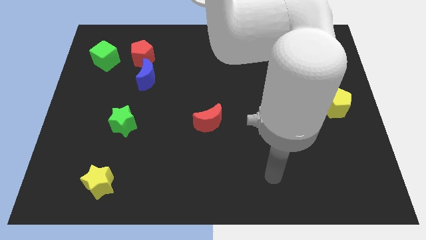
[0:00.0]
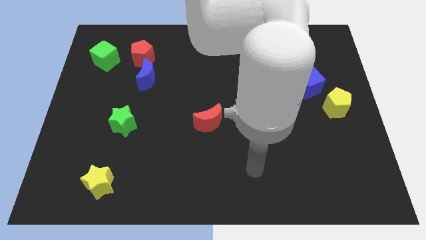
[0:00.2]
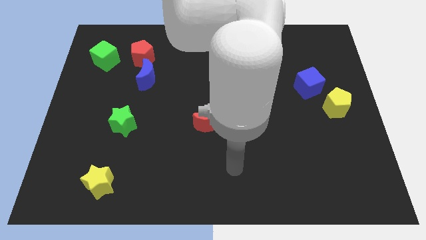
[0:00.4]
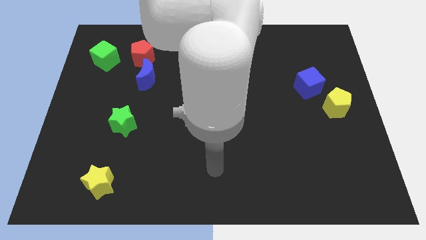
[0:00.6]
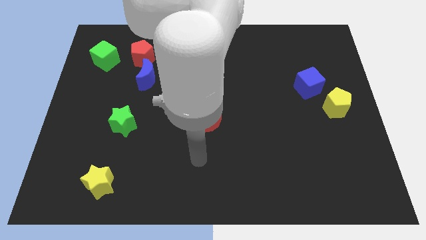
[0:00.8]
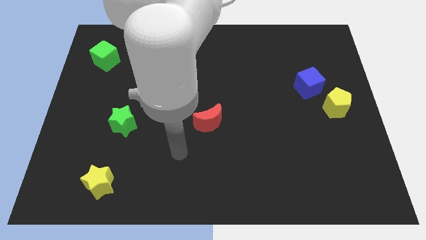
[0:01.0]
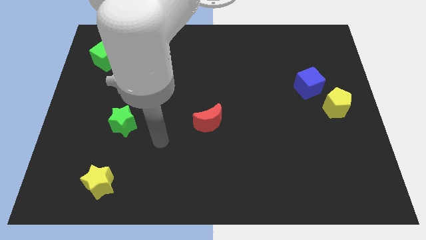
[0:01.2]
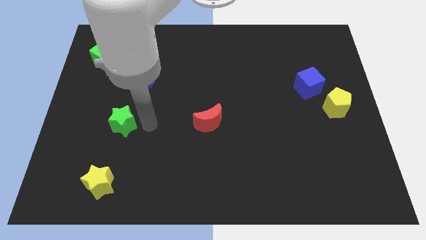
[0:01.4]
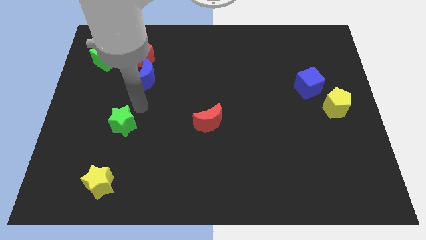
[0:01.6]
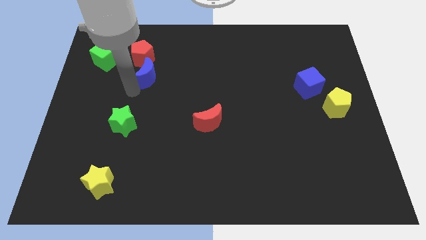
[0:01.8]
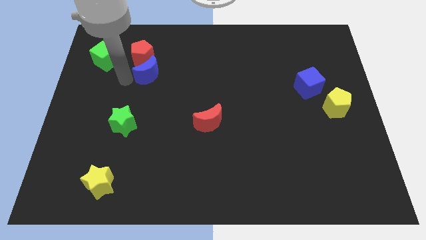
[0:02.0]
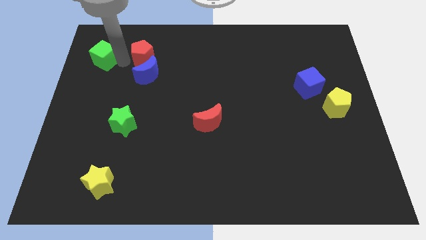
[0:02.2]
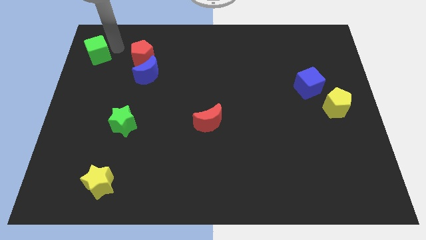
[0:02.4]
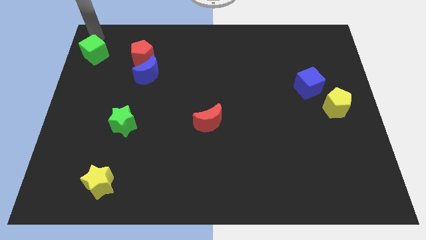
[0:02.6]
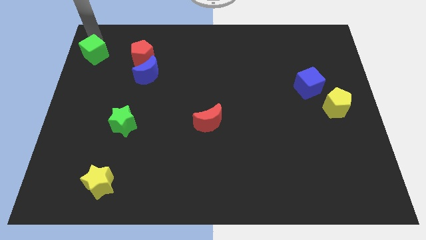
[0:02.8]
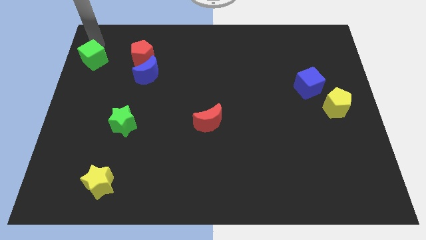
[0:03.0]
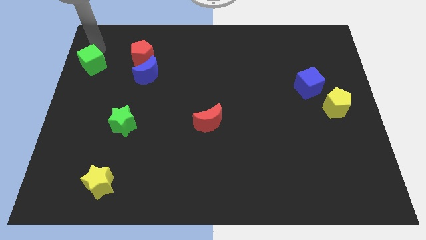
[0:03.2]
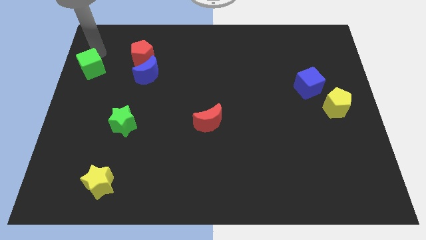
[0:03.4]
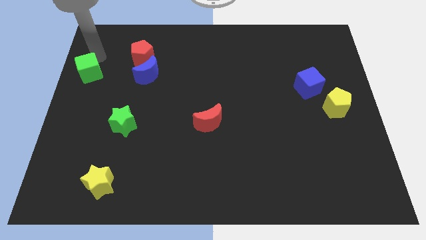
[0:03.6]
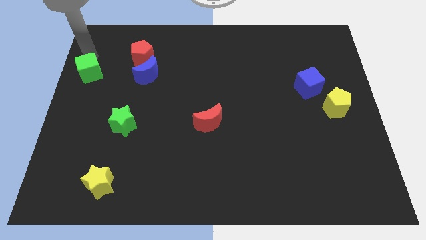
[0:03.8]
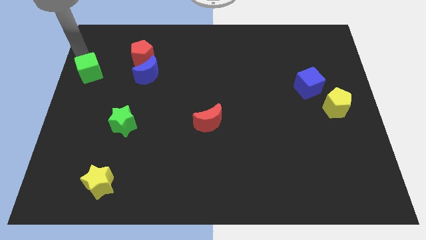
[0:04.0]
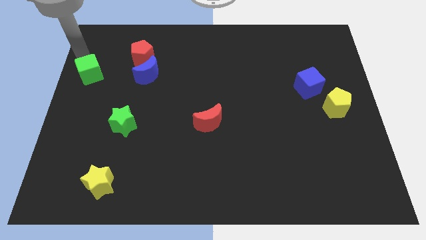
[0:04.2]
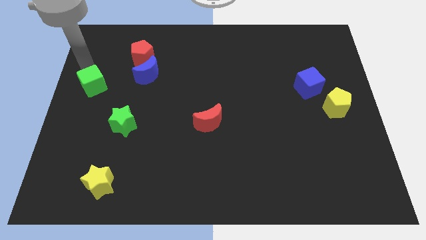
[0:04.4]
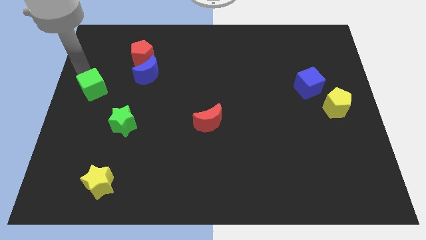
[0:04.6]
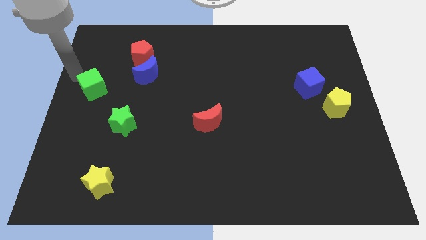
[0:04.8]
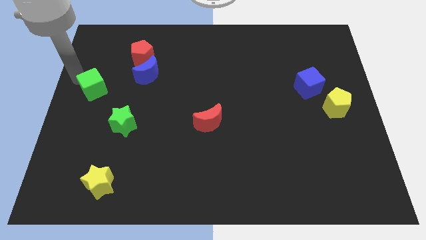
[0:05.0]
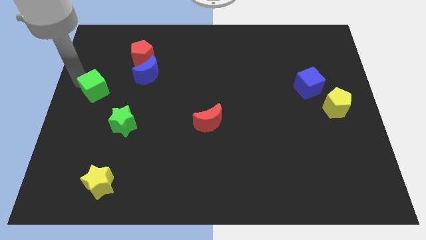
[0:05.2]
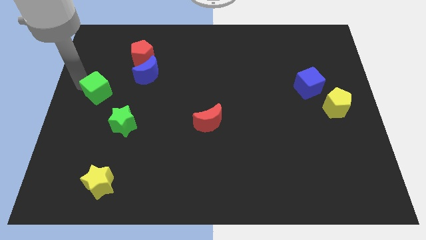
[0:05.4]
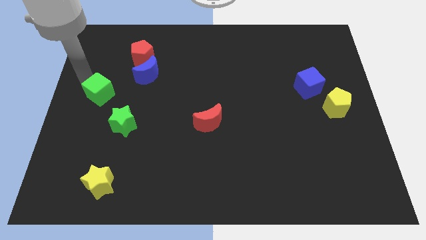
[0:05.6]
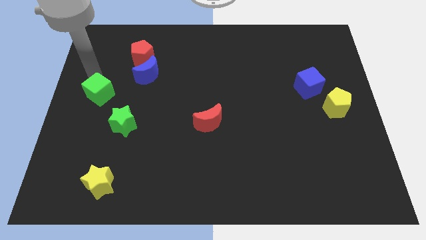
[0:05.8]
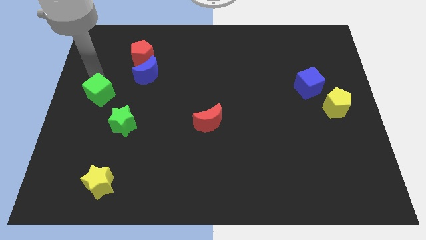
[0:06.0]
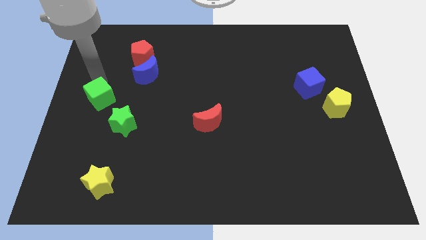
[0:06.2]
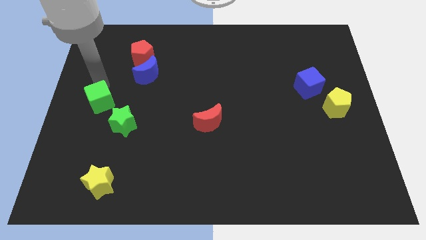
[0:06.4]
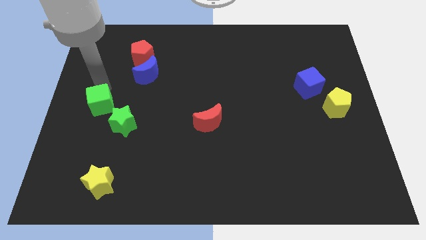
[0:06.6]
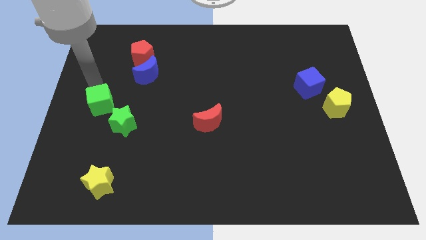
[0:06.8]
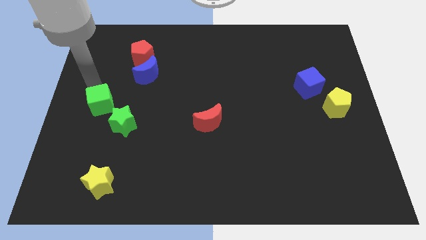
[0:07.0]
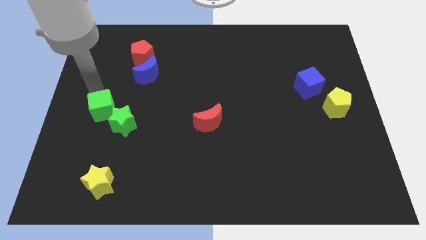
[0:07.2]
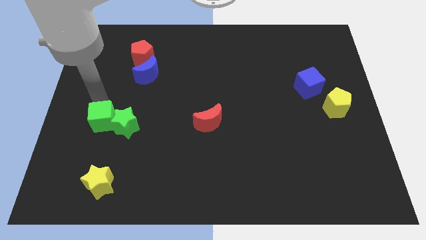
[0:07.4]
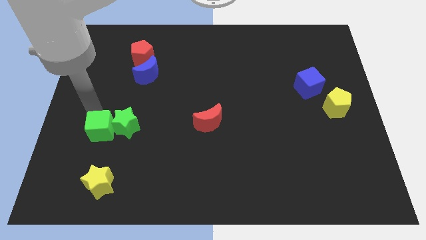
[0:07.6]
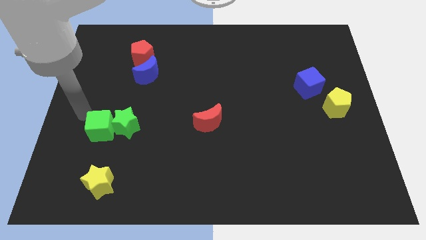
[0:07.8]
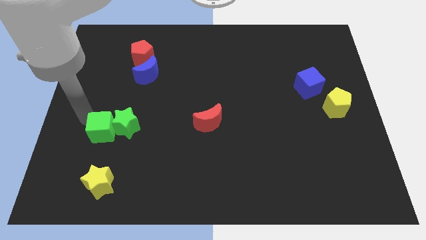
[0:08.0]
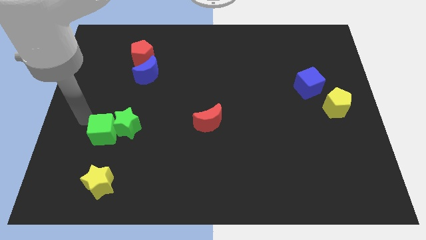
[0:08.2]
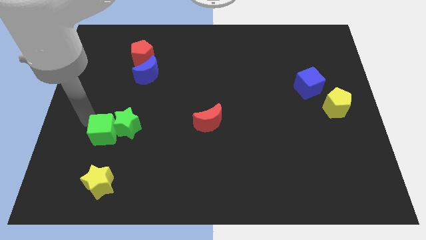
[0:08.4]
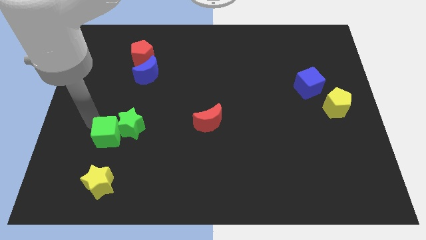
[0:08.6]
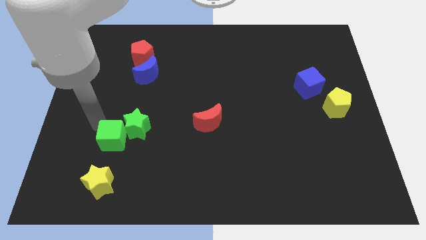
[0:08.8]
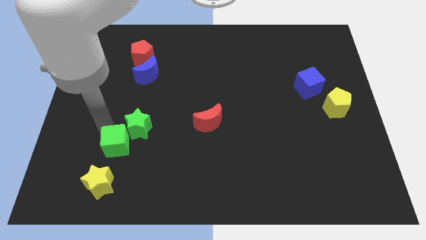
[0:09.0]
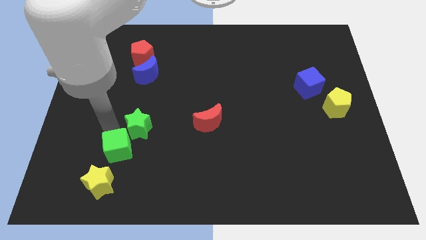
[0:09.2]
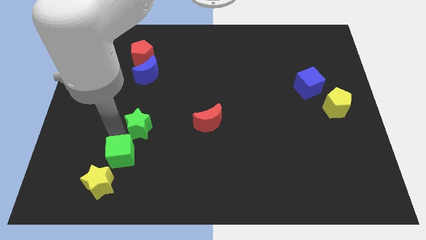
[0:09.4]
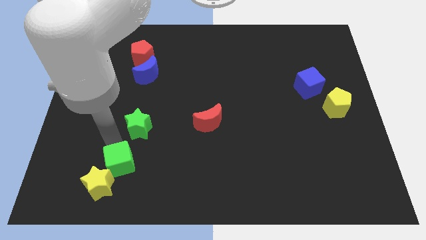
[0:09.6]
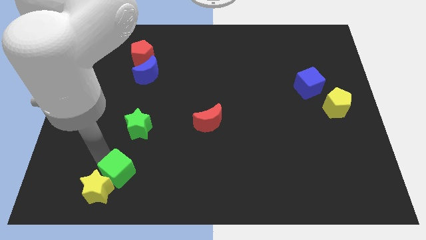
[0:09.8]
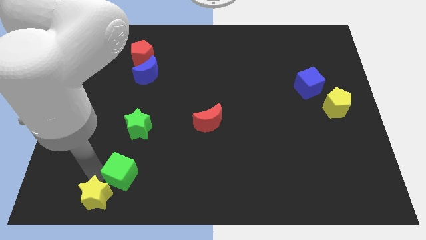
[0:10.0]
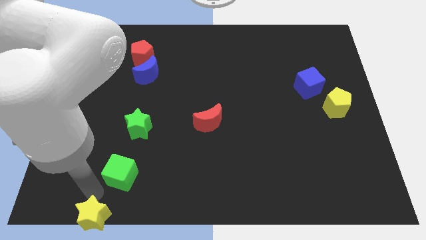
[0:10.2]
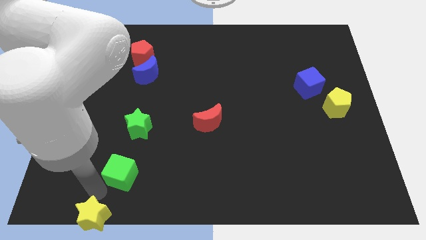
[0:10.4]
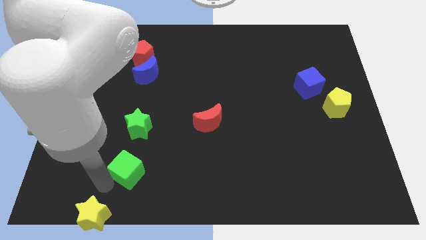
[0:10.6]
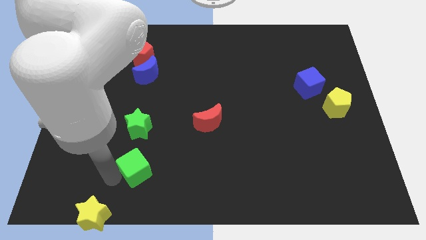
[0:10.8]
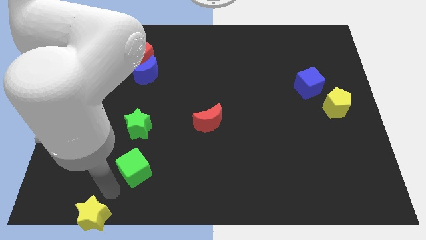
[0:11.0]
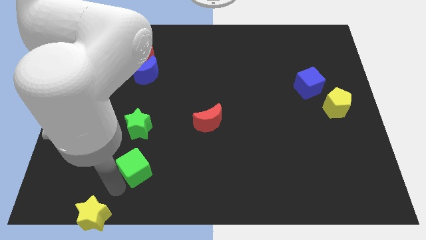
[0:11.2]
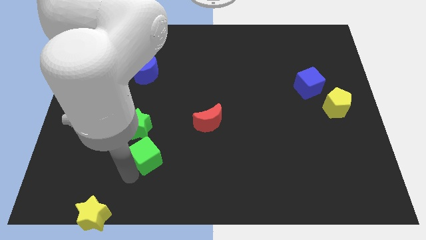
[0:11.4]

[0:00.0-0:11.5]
put the green cube diagonally down and to the right of the green star

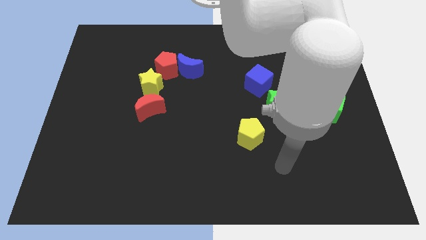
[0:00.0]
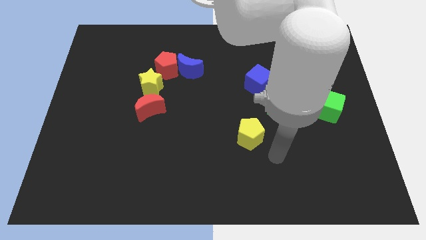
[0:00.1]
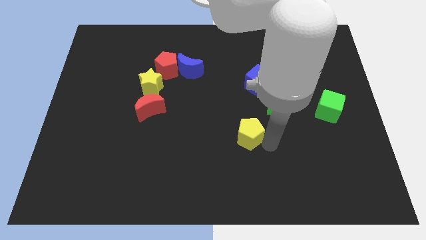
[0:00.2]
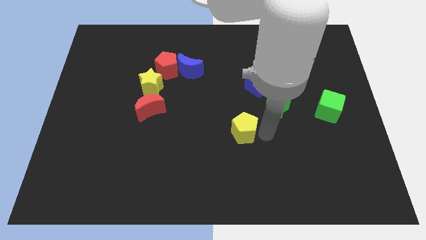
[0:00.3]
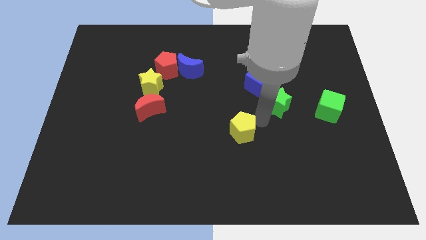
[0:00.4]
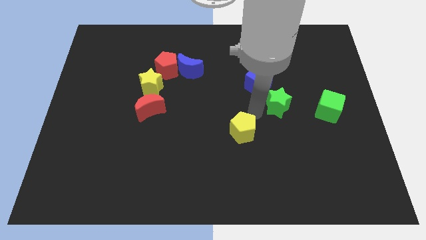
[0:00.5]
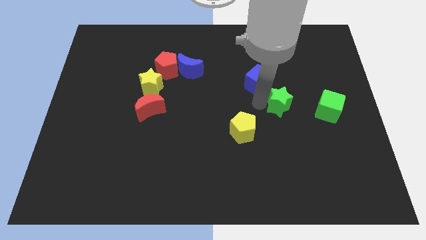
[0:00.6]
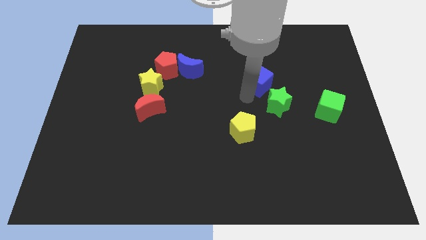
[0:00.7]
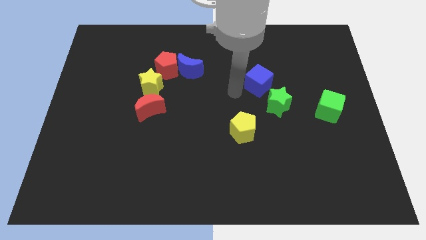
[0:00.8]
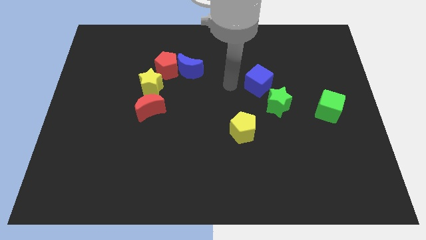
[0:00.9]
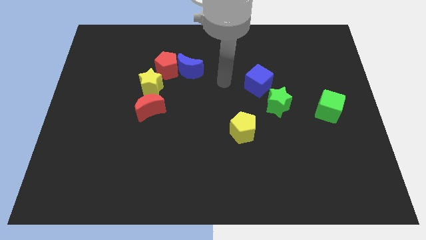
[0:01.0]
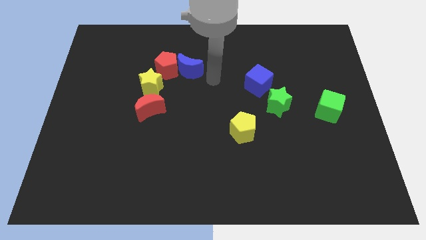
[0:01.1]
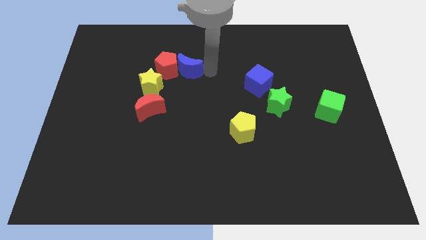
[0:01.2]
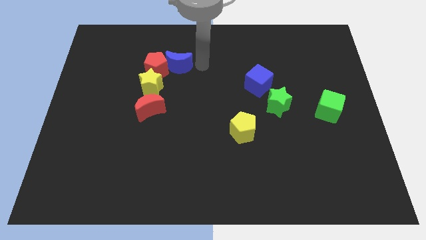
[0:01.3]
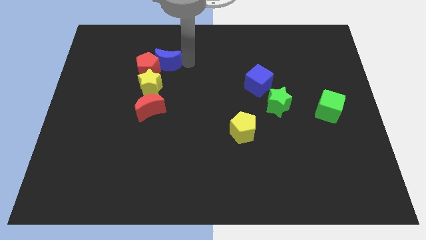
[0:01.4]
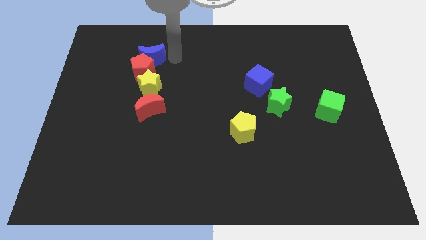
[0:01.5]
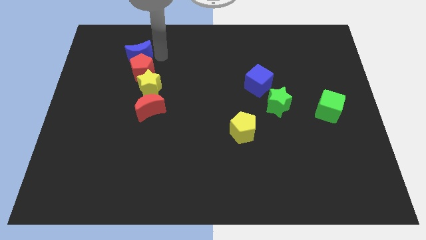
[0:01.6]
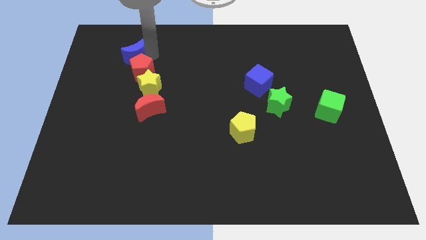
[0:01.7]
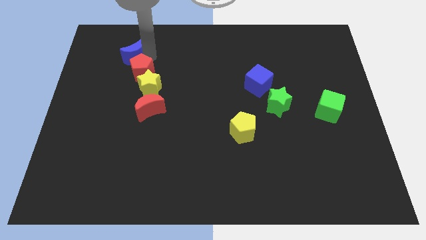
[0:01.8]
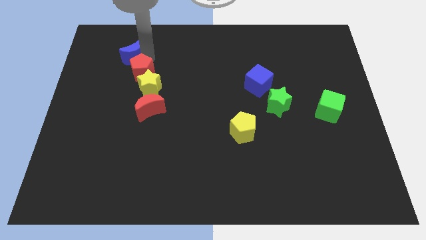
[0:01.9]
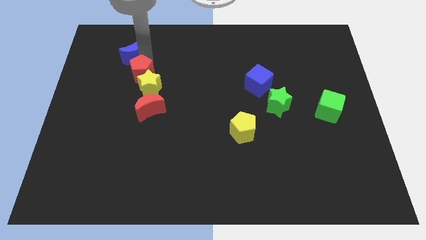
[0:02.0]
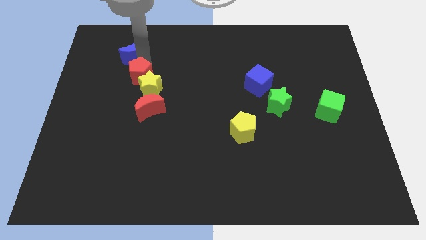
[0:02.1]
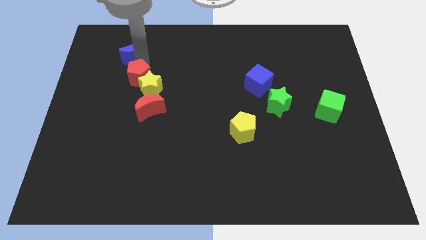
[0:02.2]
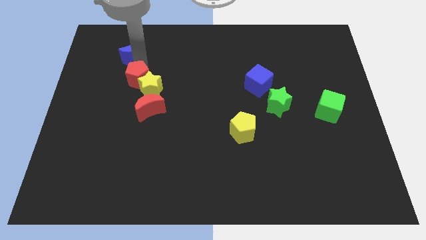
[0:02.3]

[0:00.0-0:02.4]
slide the red pentagon to the top left of the red moon
